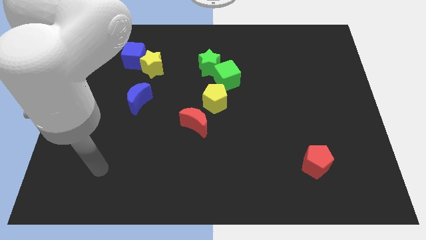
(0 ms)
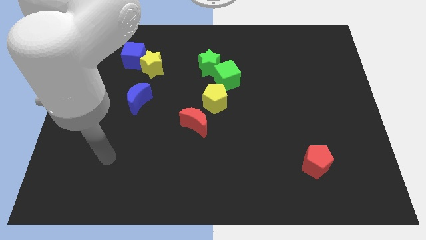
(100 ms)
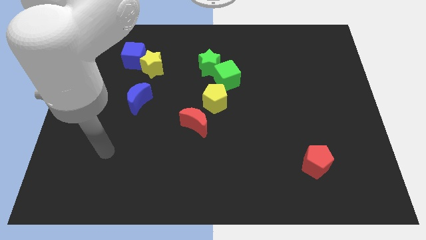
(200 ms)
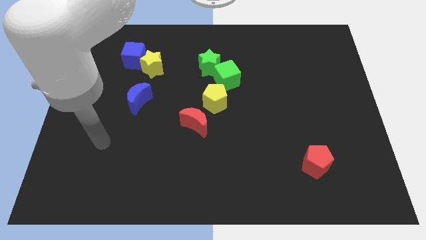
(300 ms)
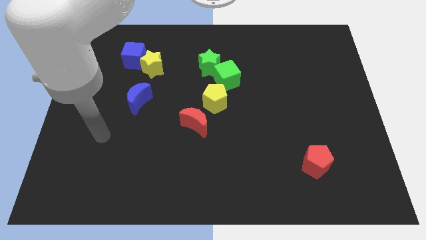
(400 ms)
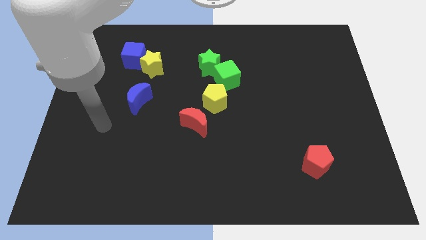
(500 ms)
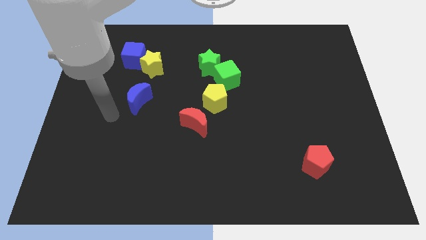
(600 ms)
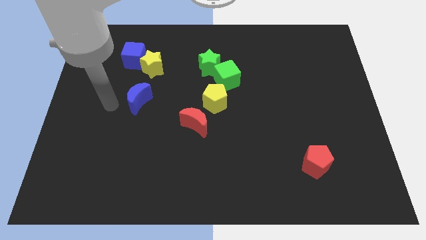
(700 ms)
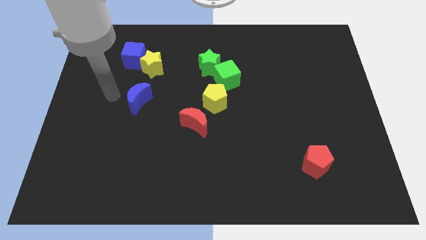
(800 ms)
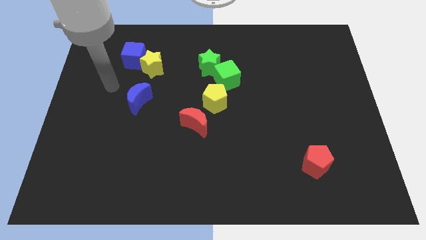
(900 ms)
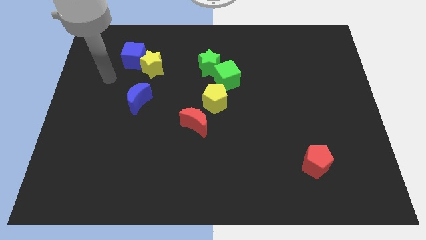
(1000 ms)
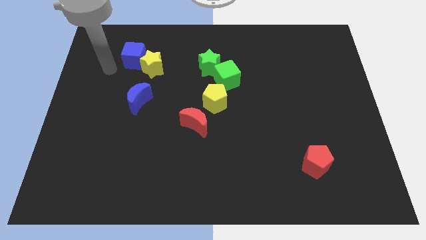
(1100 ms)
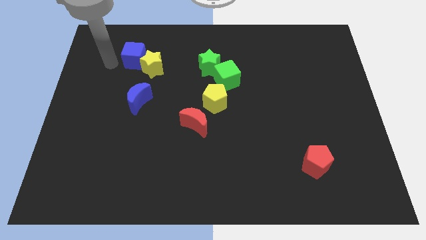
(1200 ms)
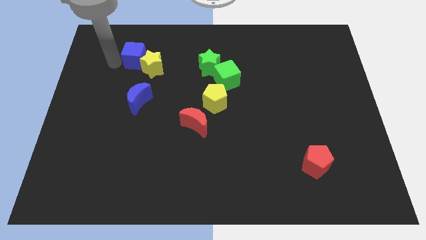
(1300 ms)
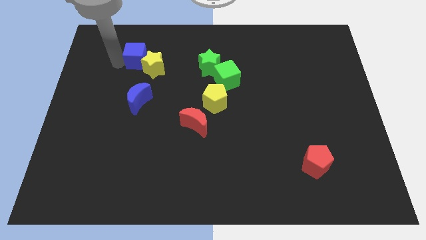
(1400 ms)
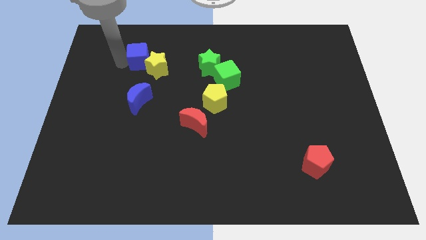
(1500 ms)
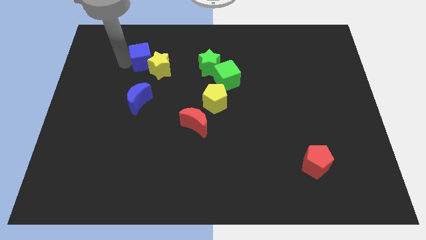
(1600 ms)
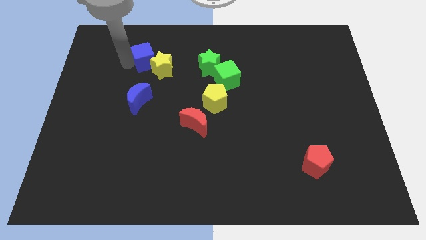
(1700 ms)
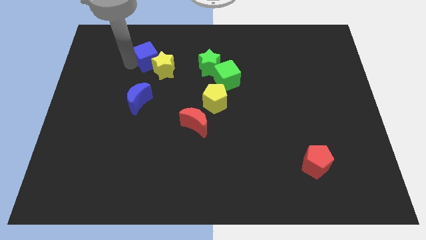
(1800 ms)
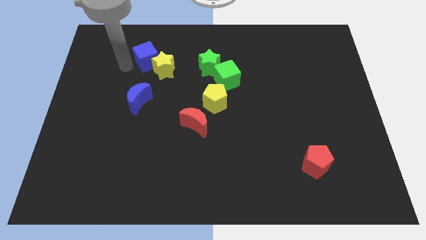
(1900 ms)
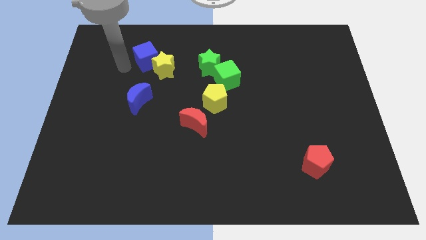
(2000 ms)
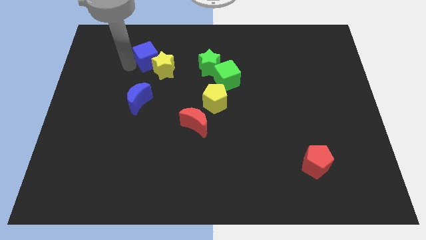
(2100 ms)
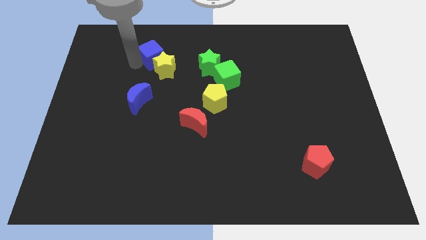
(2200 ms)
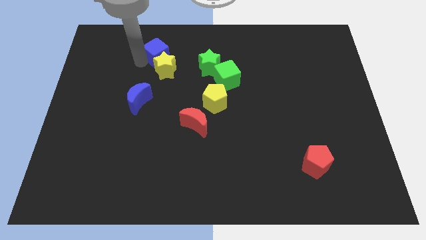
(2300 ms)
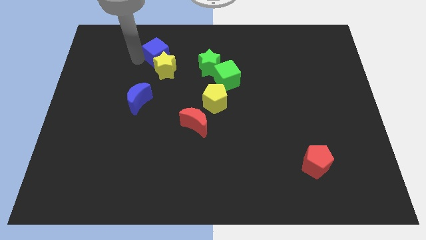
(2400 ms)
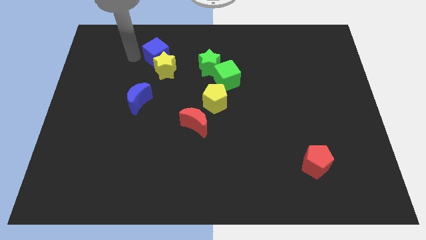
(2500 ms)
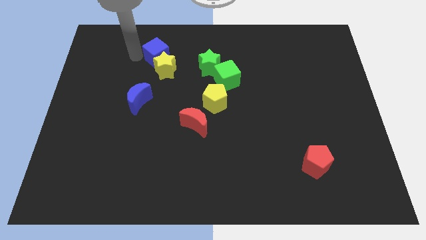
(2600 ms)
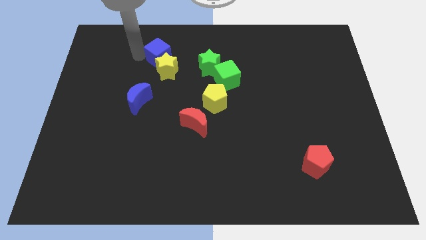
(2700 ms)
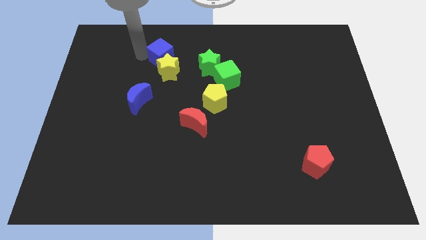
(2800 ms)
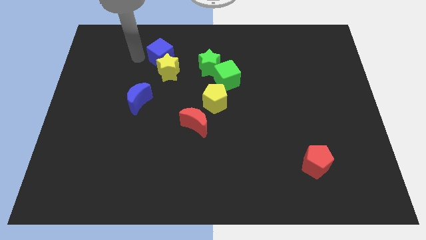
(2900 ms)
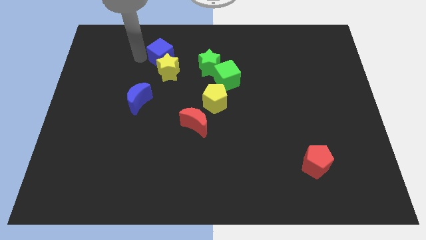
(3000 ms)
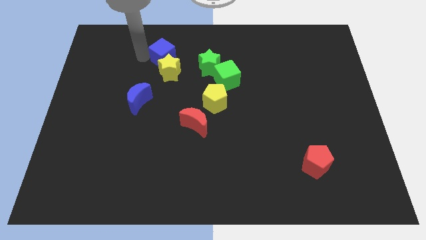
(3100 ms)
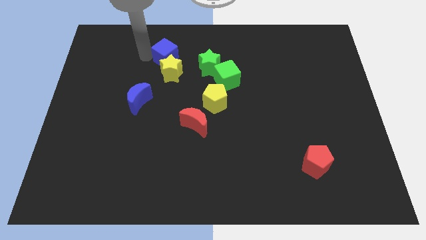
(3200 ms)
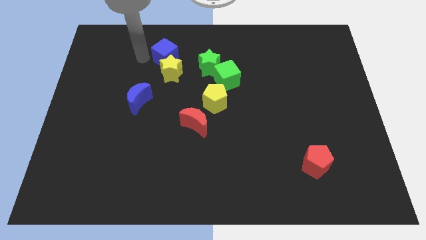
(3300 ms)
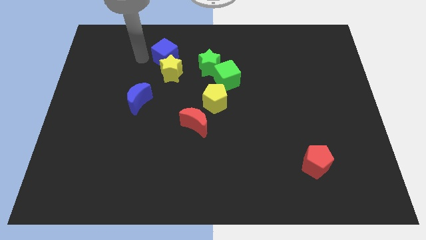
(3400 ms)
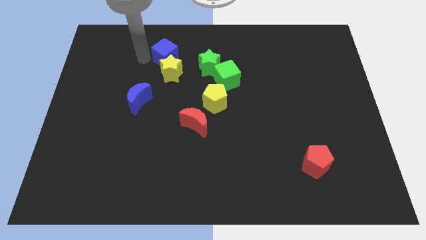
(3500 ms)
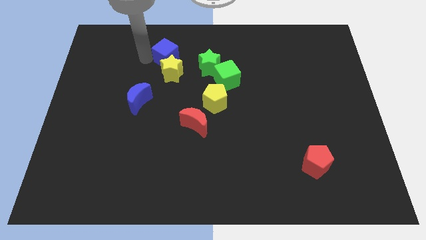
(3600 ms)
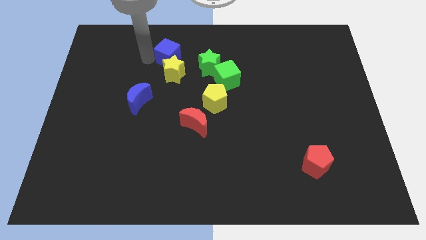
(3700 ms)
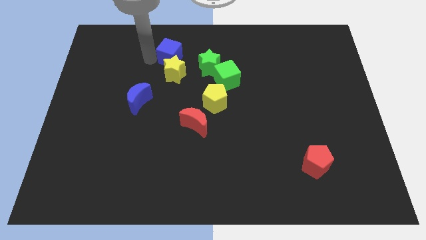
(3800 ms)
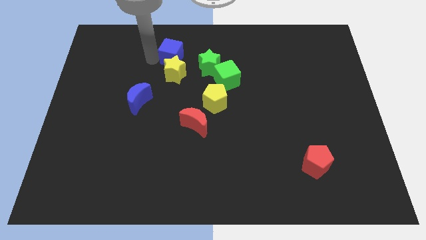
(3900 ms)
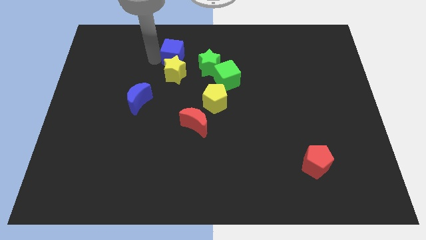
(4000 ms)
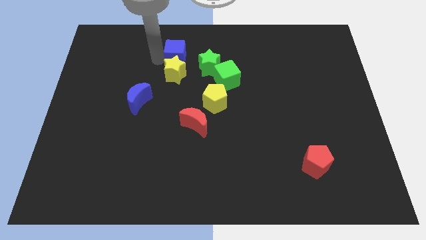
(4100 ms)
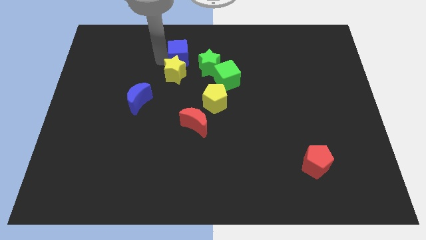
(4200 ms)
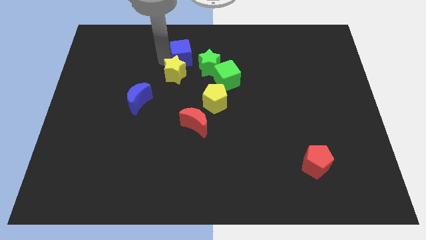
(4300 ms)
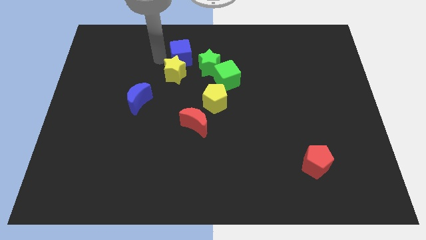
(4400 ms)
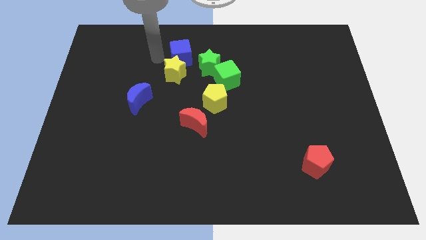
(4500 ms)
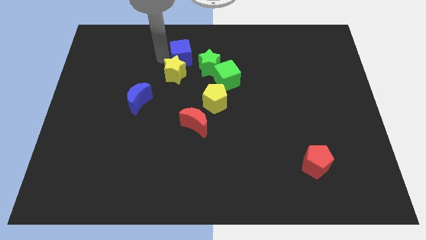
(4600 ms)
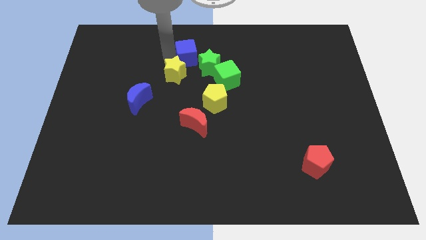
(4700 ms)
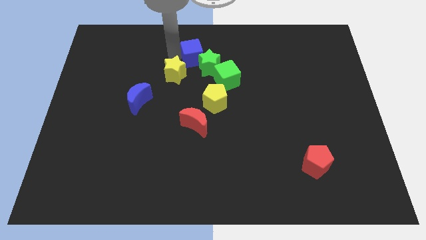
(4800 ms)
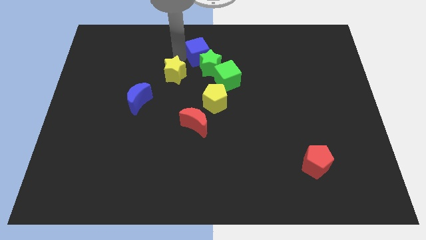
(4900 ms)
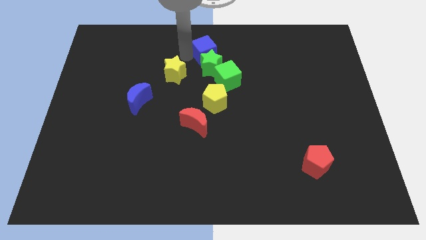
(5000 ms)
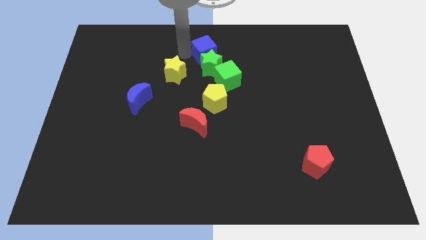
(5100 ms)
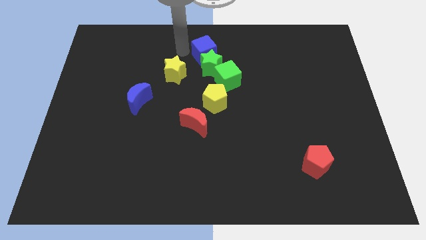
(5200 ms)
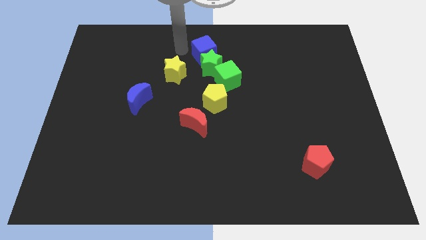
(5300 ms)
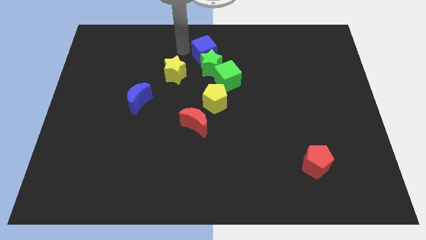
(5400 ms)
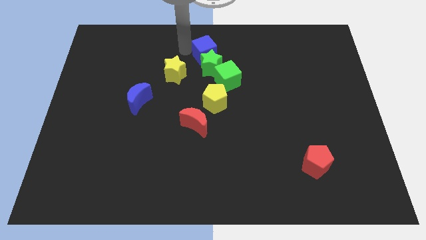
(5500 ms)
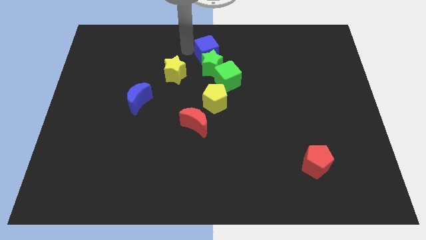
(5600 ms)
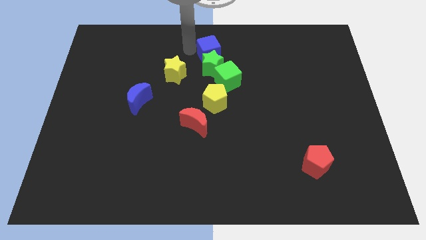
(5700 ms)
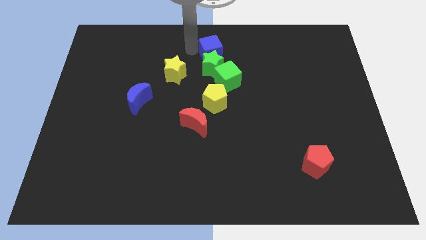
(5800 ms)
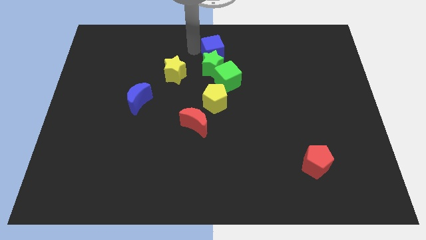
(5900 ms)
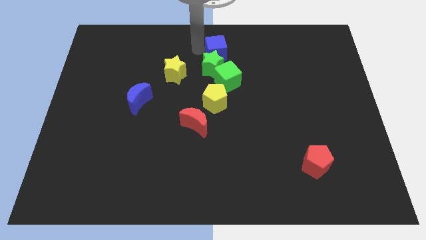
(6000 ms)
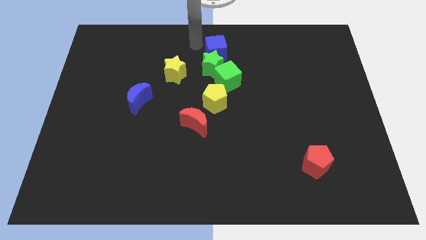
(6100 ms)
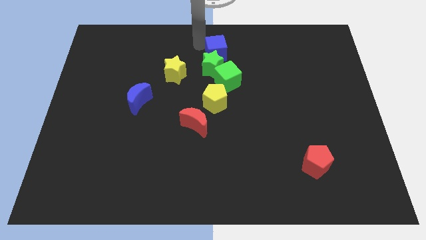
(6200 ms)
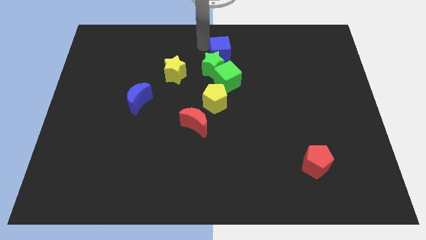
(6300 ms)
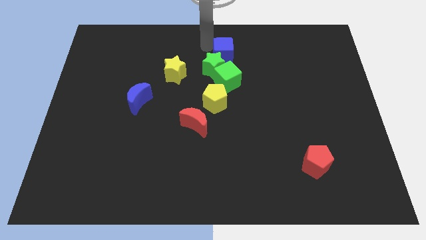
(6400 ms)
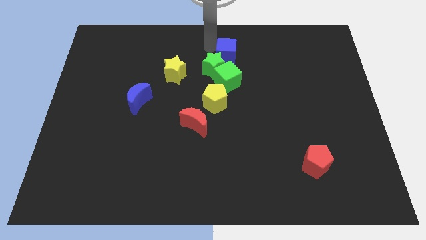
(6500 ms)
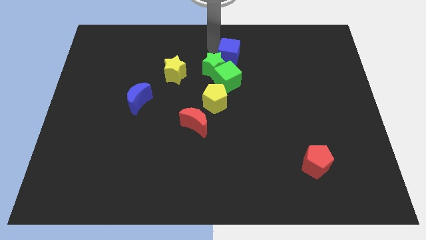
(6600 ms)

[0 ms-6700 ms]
move the blue cube to the right side of the green star

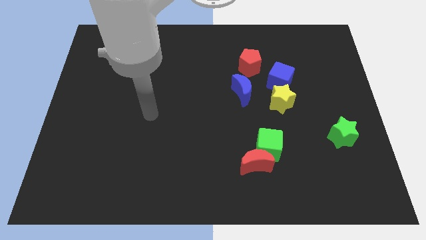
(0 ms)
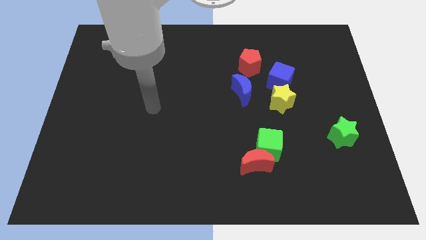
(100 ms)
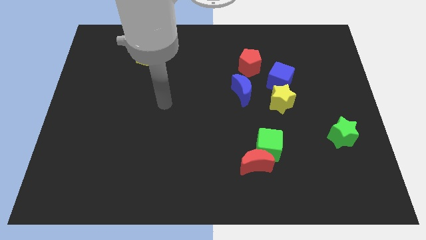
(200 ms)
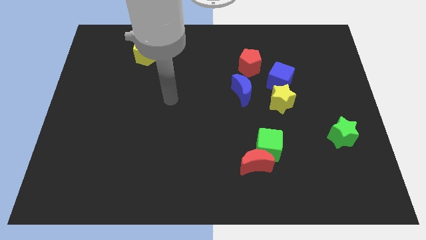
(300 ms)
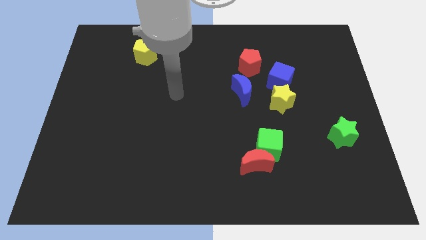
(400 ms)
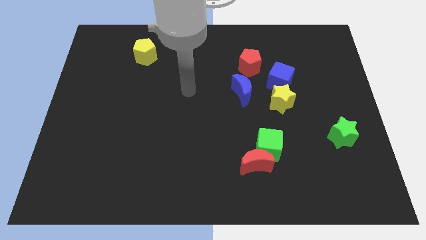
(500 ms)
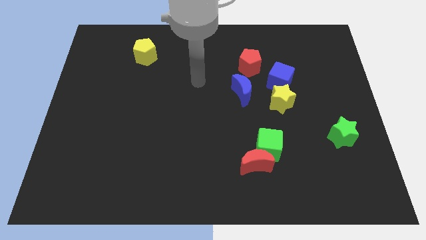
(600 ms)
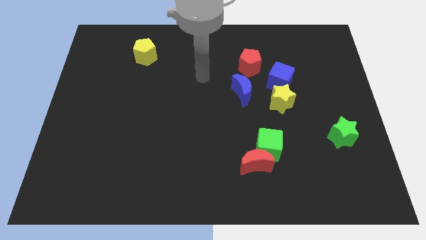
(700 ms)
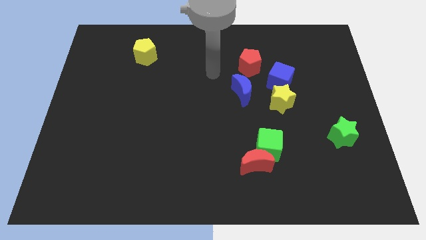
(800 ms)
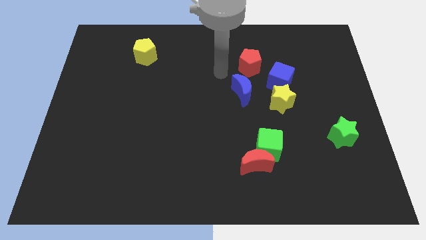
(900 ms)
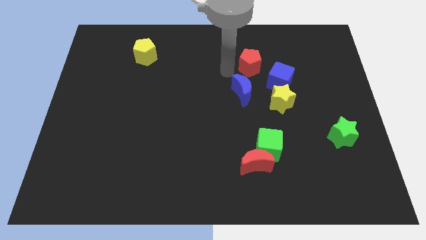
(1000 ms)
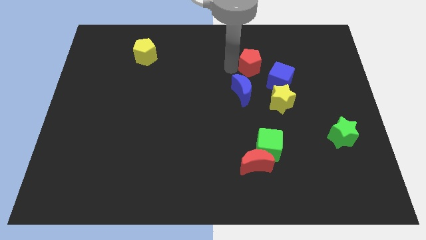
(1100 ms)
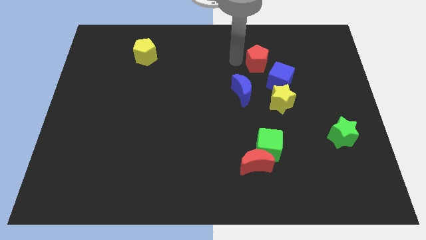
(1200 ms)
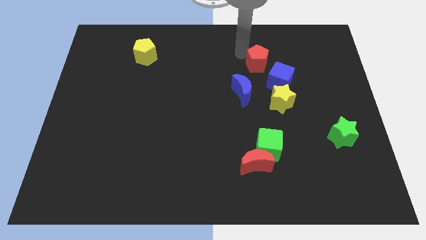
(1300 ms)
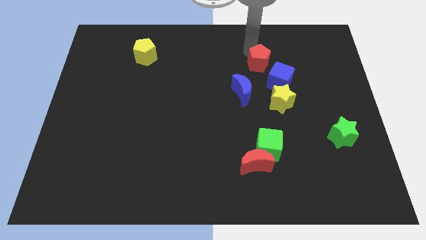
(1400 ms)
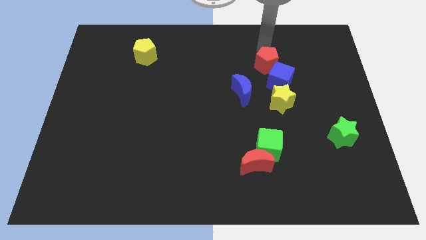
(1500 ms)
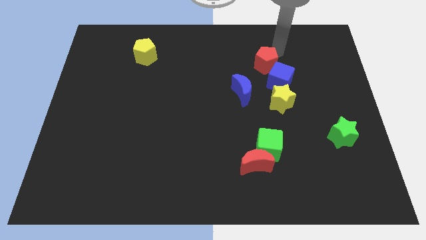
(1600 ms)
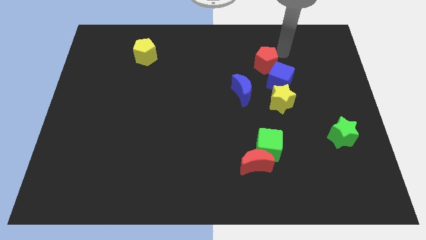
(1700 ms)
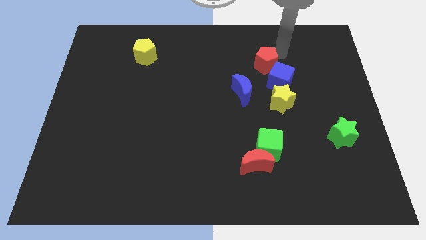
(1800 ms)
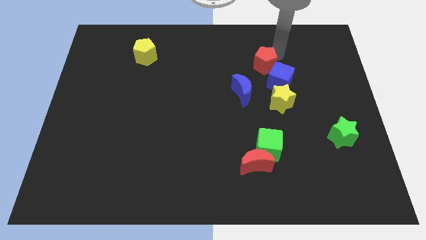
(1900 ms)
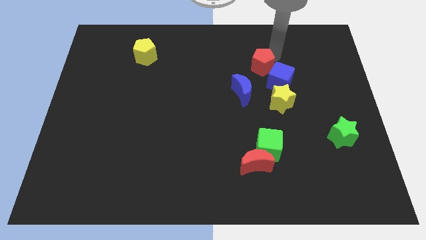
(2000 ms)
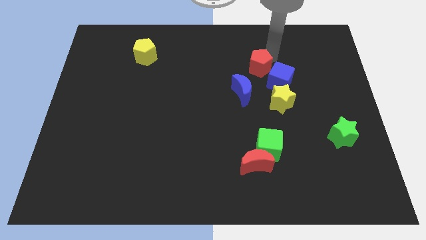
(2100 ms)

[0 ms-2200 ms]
move the red pentagon to the left of the blue cube
